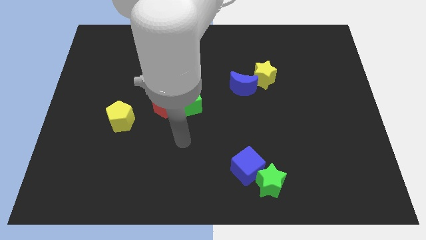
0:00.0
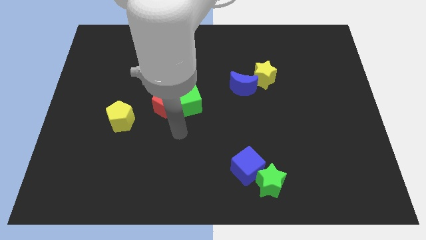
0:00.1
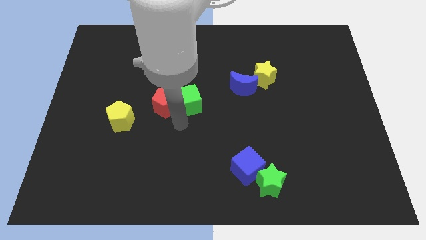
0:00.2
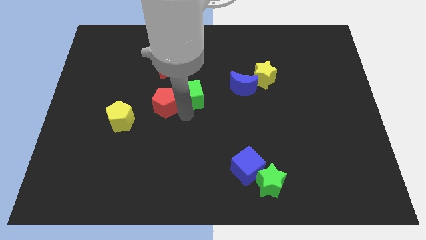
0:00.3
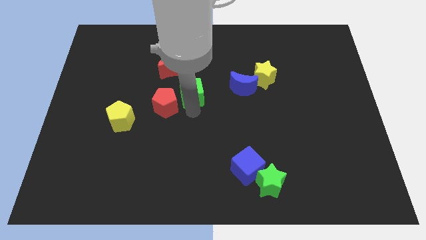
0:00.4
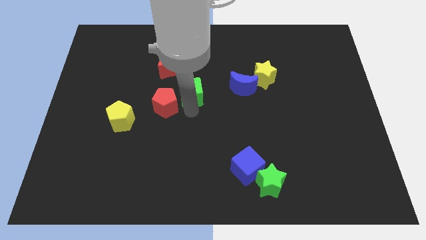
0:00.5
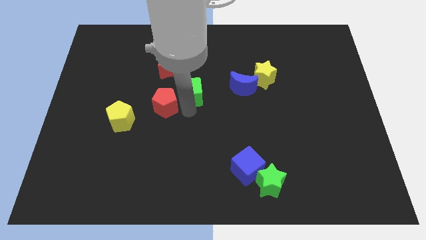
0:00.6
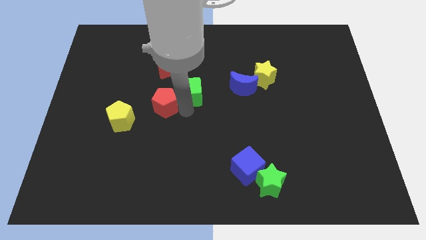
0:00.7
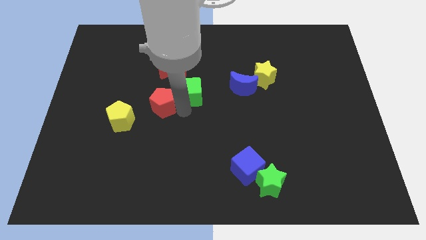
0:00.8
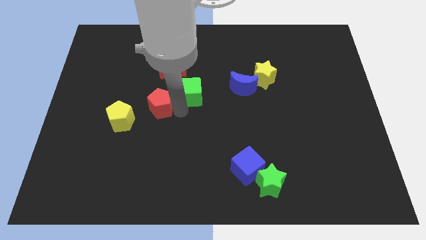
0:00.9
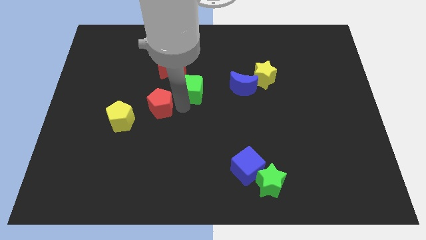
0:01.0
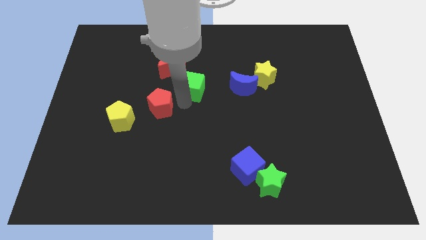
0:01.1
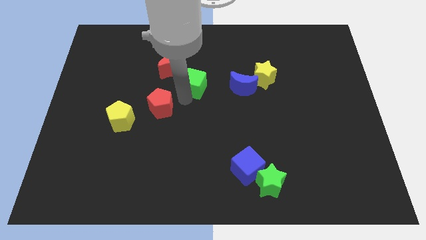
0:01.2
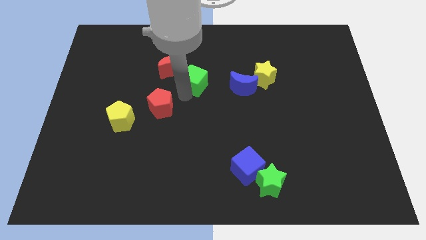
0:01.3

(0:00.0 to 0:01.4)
move the red pentagon away from the green cube

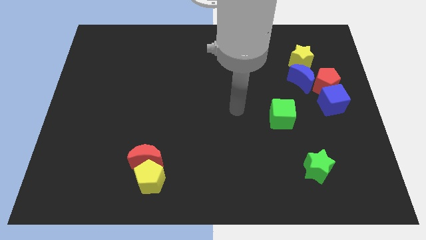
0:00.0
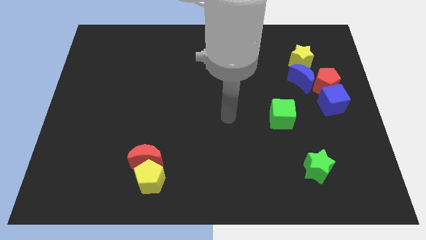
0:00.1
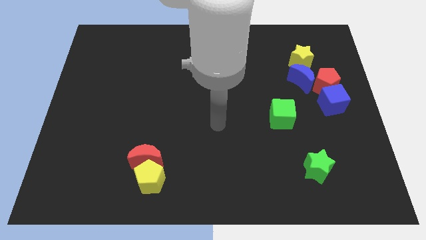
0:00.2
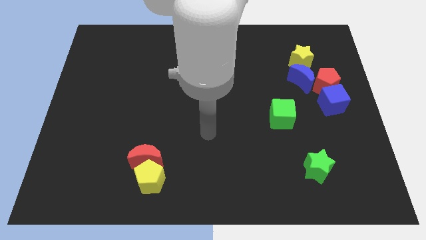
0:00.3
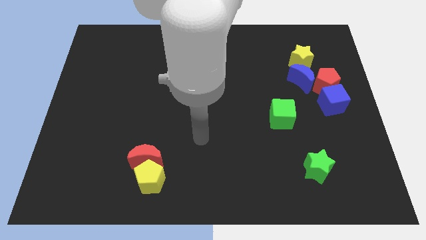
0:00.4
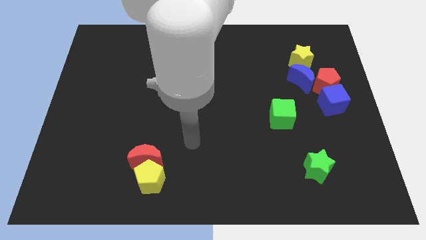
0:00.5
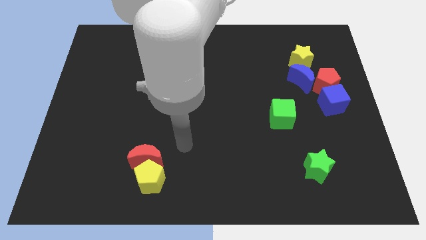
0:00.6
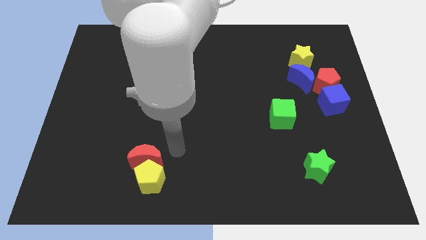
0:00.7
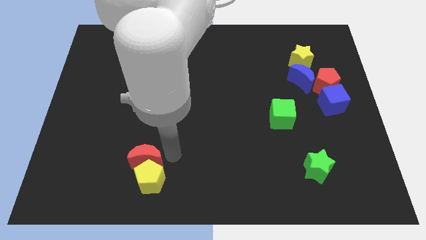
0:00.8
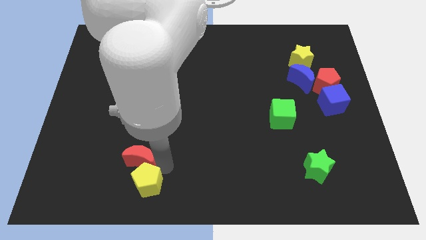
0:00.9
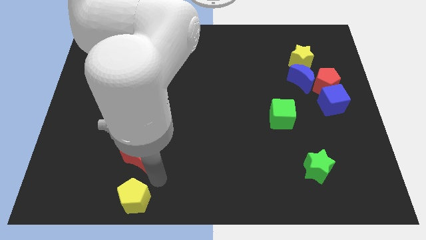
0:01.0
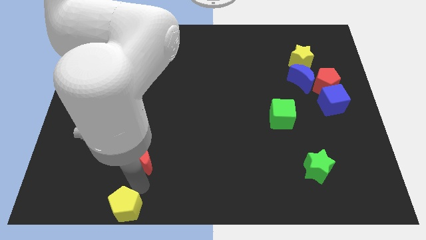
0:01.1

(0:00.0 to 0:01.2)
separate the red moon from the yellow pentagon

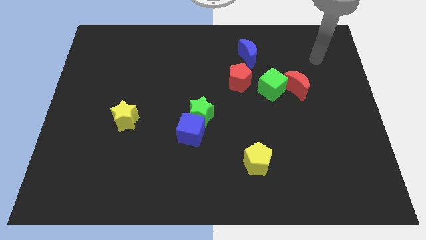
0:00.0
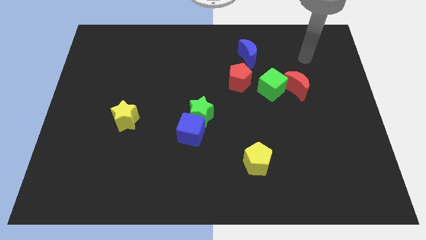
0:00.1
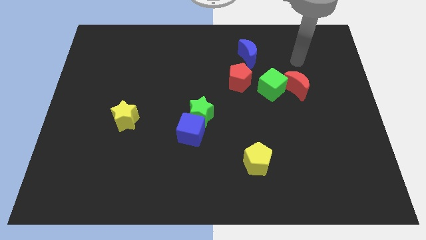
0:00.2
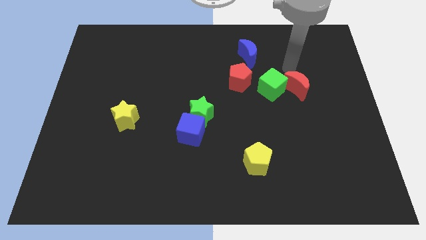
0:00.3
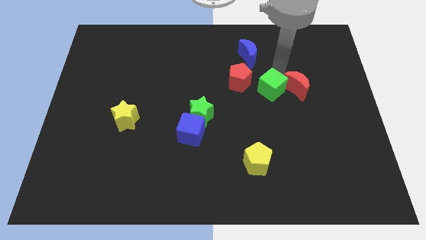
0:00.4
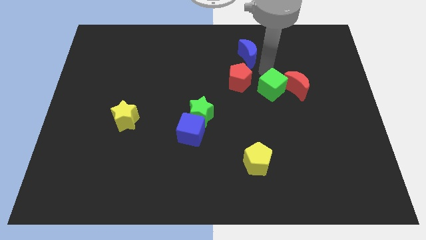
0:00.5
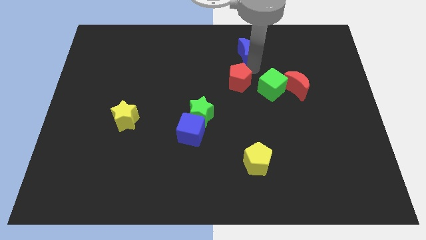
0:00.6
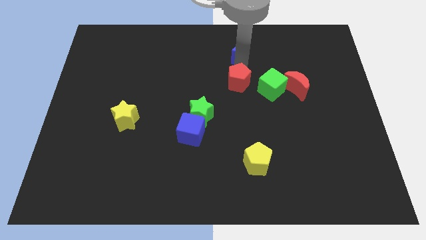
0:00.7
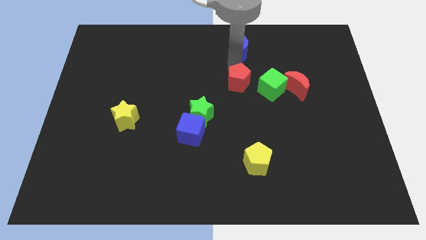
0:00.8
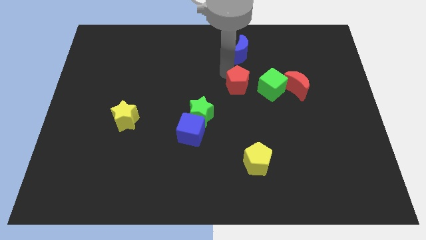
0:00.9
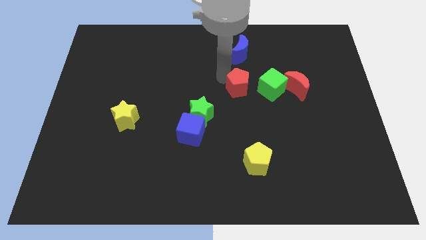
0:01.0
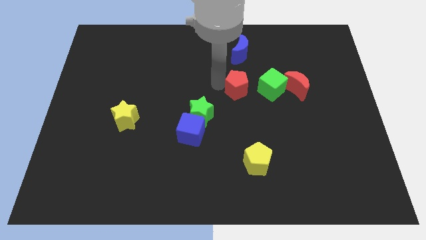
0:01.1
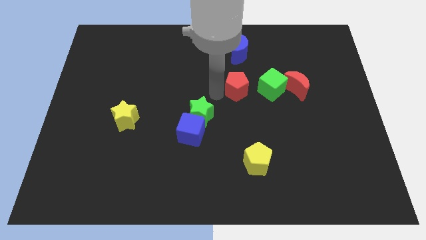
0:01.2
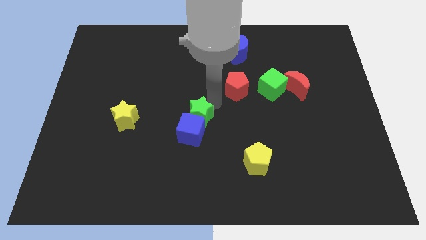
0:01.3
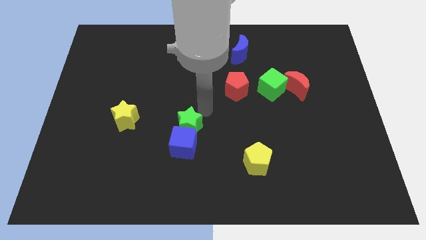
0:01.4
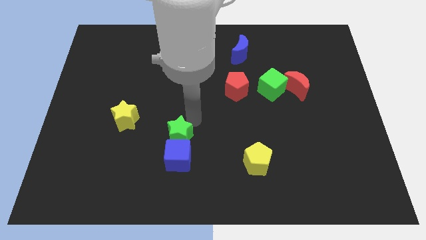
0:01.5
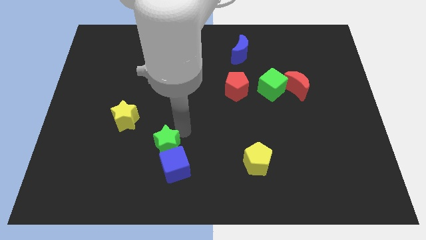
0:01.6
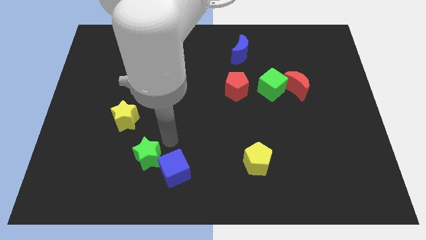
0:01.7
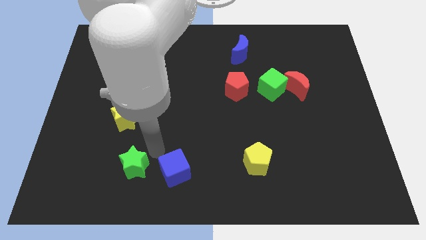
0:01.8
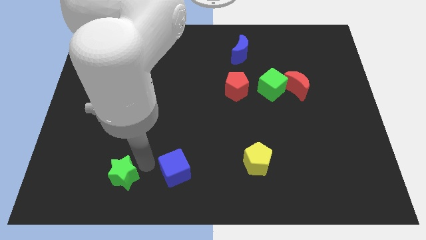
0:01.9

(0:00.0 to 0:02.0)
separate the blue cube from the green star

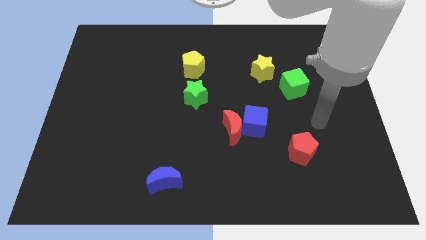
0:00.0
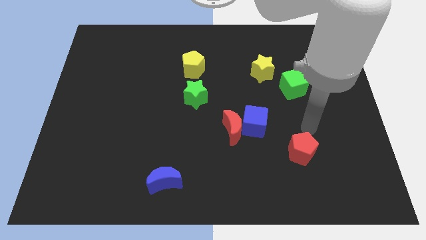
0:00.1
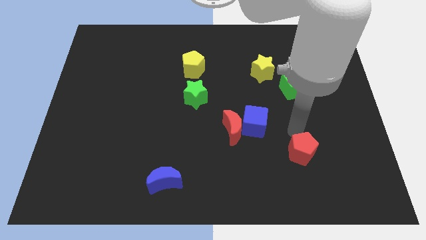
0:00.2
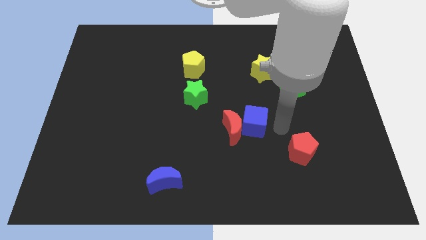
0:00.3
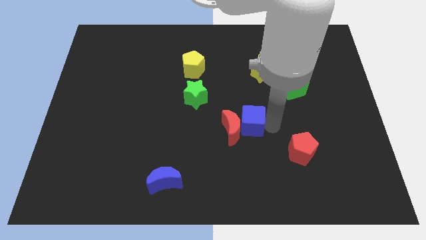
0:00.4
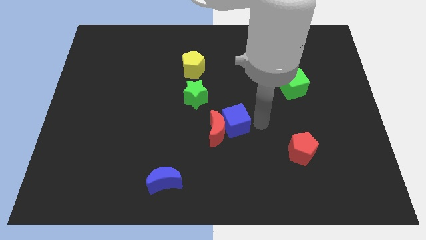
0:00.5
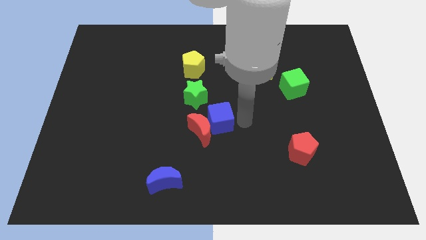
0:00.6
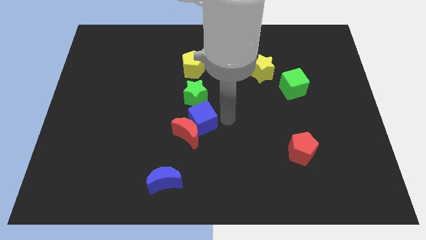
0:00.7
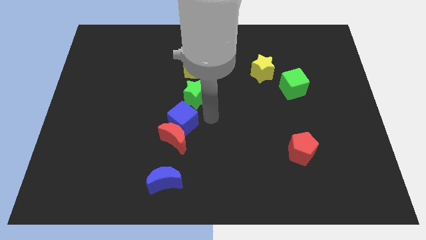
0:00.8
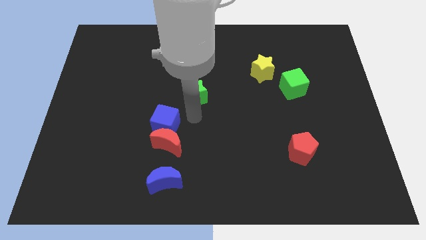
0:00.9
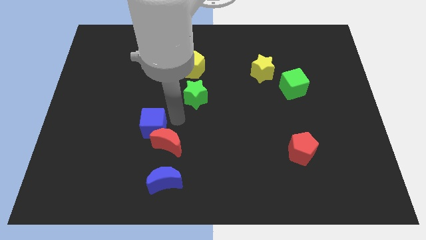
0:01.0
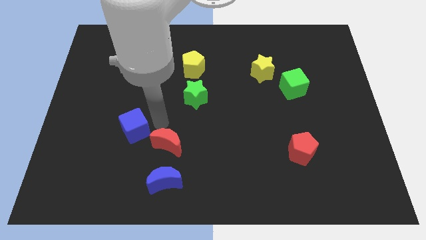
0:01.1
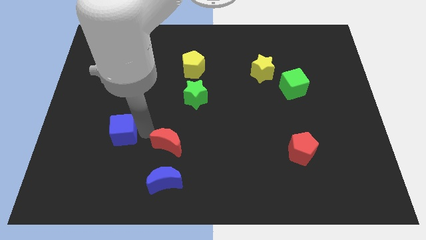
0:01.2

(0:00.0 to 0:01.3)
pull the red moon apart from the blue cube

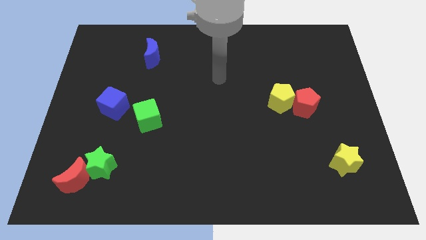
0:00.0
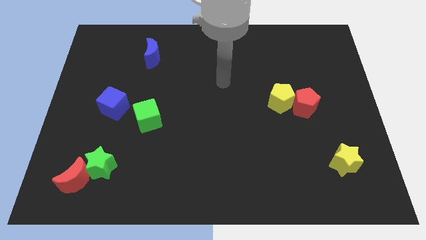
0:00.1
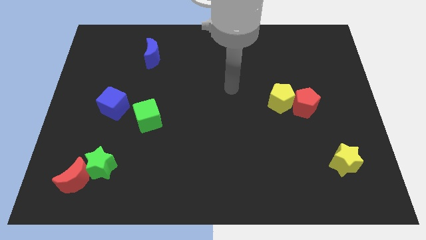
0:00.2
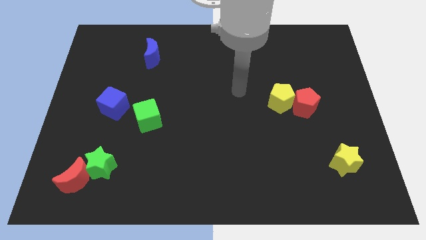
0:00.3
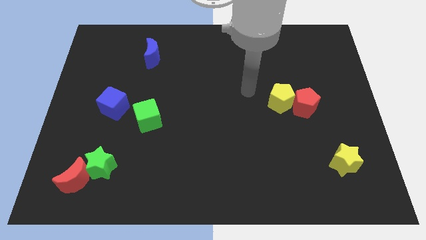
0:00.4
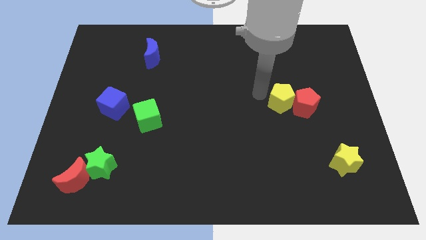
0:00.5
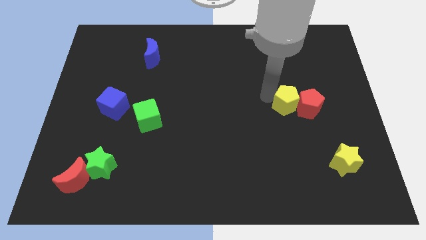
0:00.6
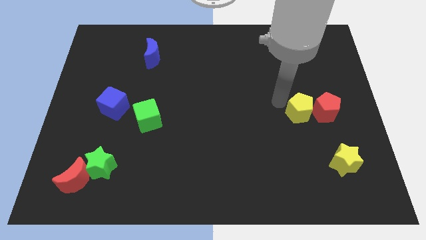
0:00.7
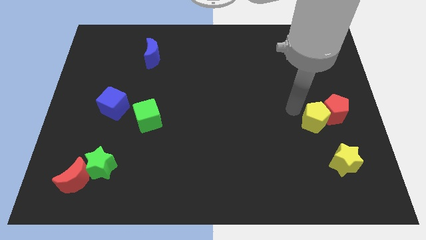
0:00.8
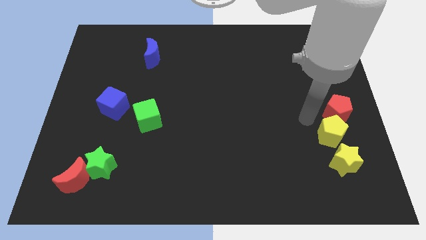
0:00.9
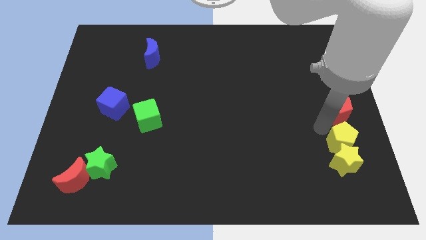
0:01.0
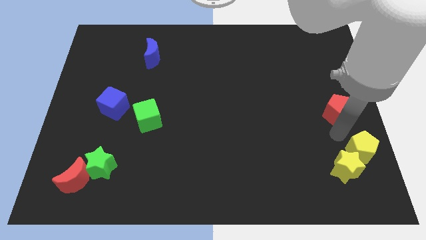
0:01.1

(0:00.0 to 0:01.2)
pull the red pentagon apart from the yellow pentagon

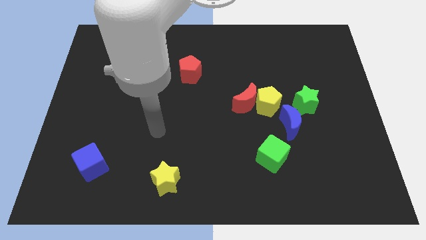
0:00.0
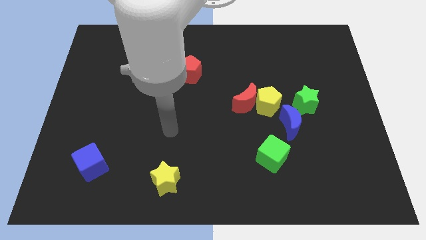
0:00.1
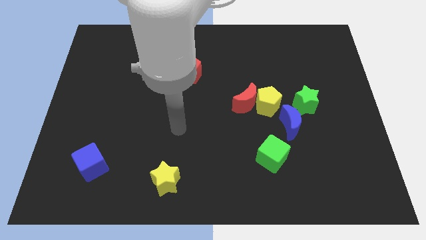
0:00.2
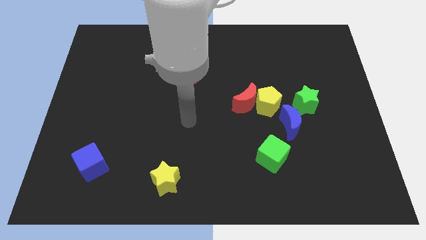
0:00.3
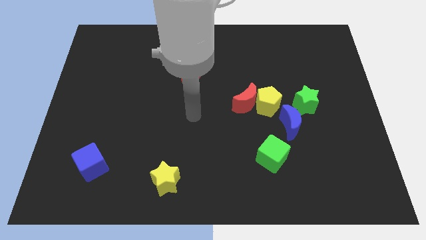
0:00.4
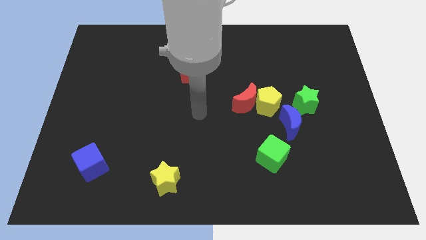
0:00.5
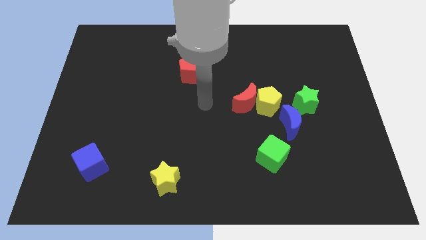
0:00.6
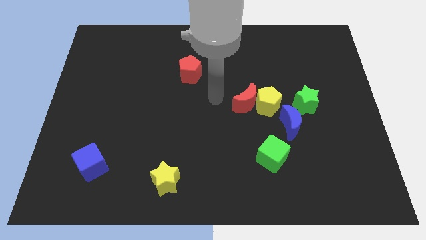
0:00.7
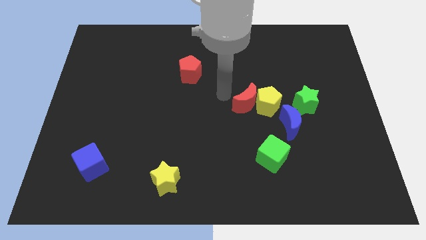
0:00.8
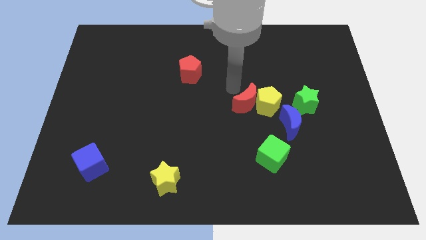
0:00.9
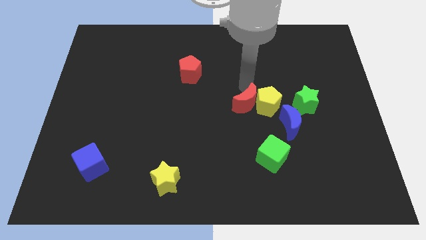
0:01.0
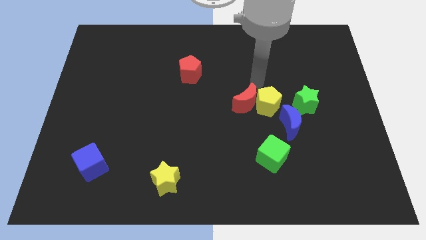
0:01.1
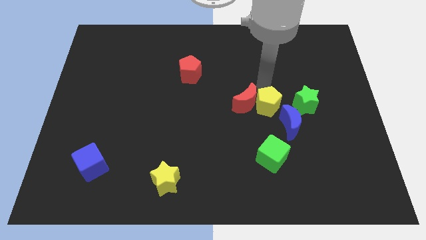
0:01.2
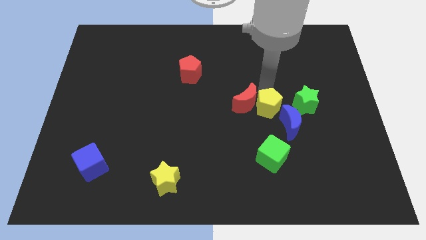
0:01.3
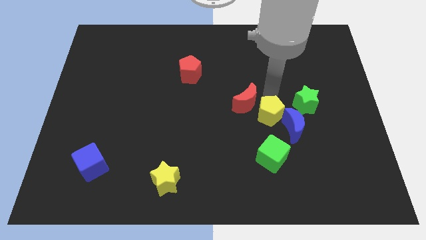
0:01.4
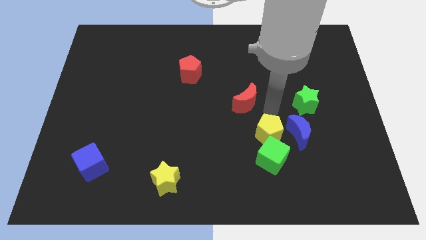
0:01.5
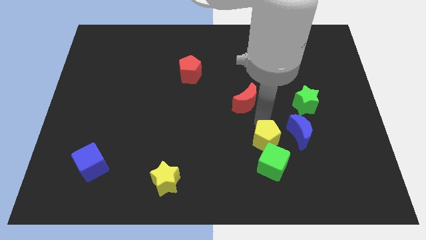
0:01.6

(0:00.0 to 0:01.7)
move the red moon away from the yellow pentagon

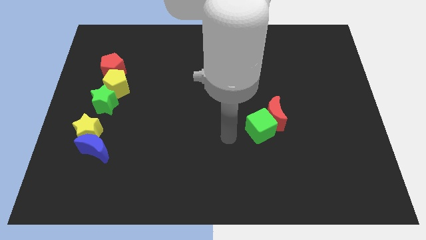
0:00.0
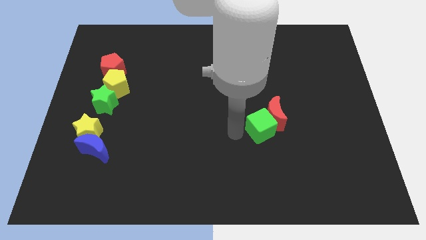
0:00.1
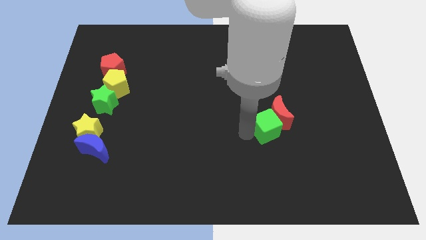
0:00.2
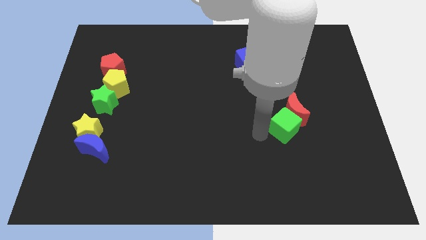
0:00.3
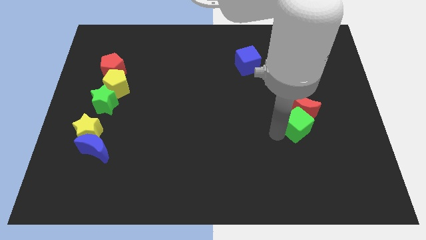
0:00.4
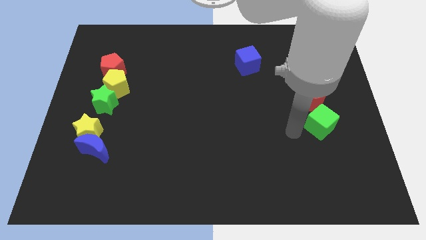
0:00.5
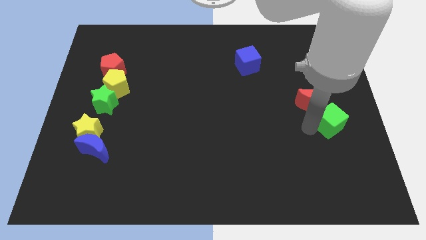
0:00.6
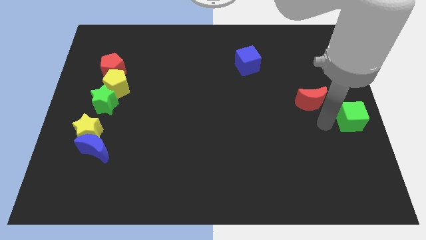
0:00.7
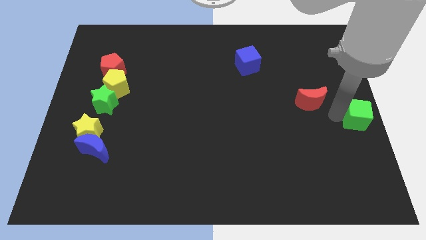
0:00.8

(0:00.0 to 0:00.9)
move the red moon away from the green cube
